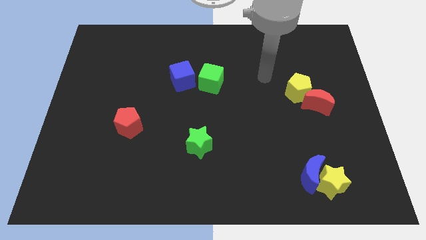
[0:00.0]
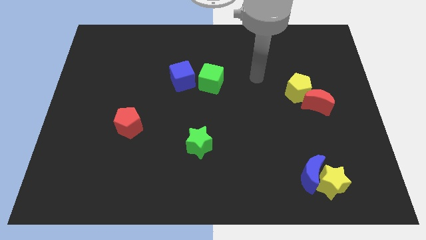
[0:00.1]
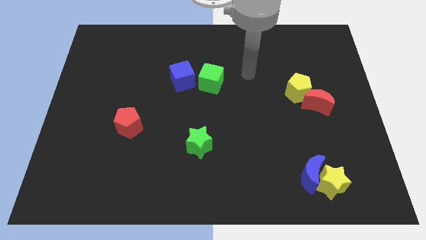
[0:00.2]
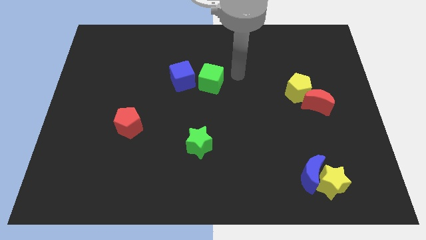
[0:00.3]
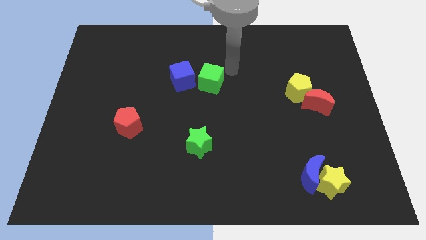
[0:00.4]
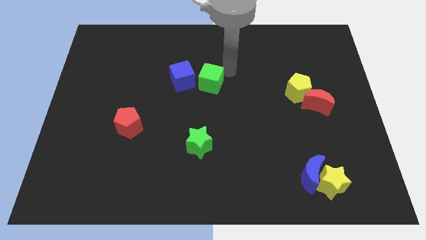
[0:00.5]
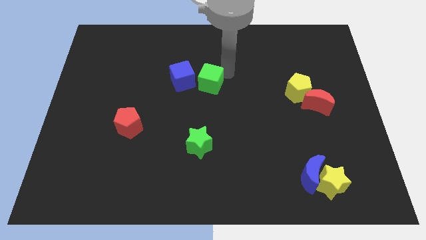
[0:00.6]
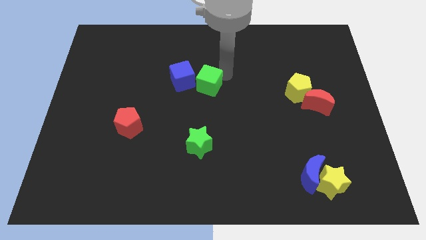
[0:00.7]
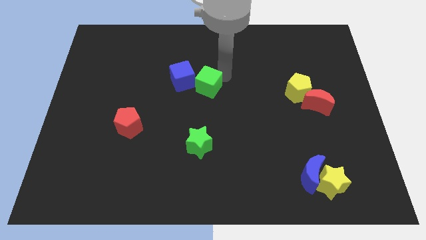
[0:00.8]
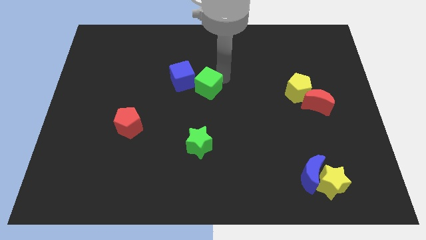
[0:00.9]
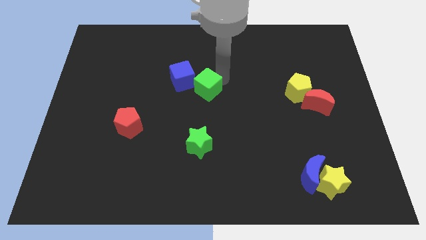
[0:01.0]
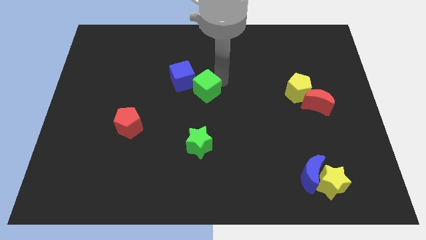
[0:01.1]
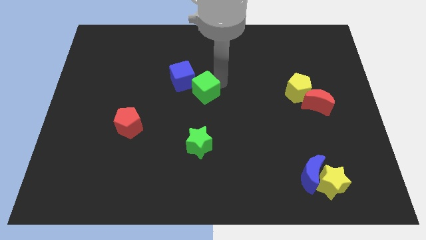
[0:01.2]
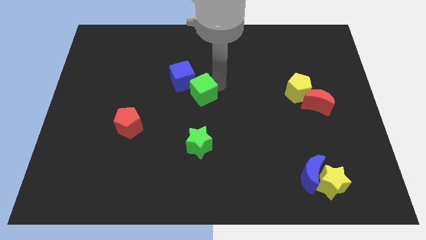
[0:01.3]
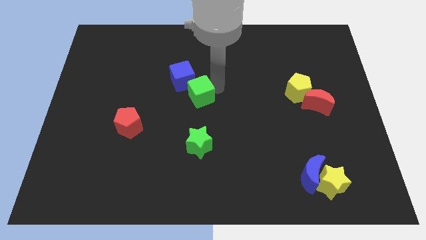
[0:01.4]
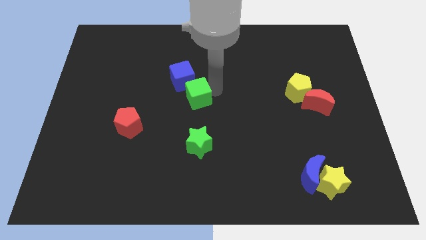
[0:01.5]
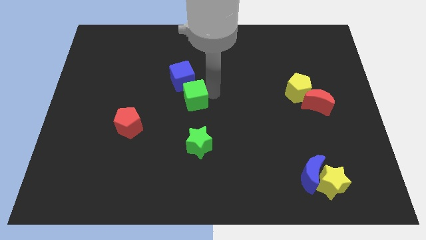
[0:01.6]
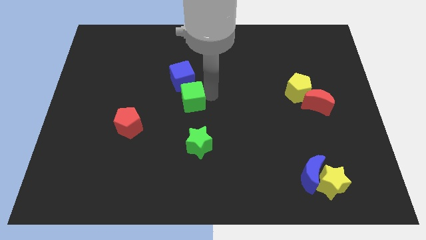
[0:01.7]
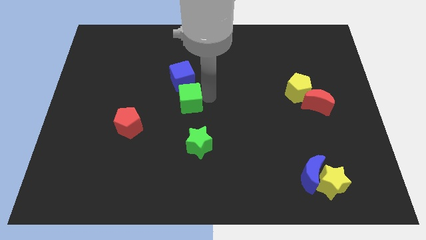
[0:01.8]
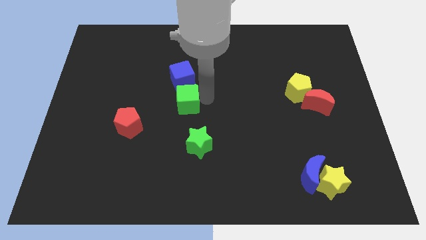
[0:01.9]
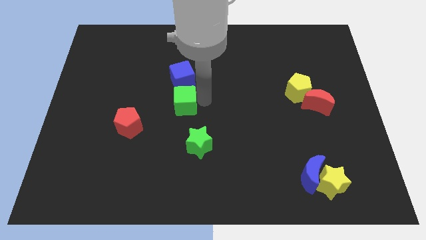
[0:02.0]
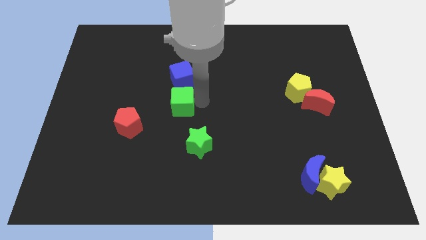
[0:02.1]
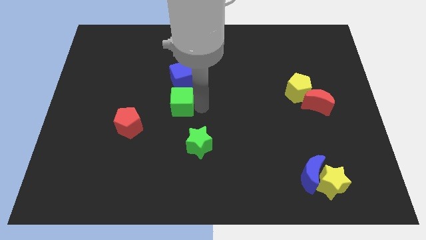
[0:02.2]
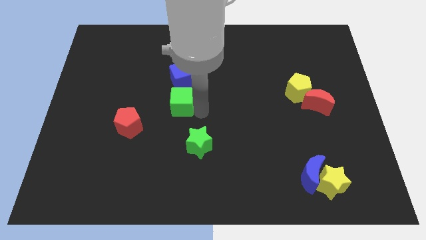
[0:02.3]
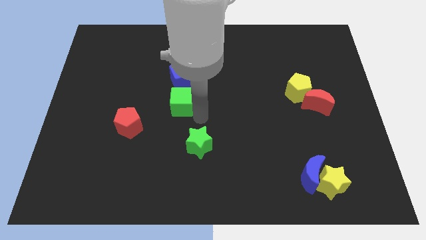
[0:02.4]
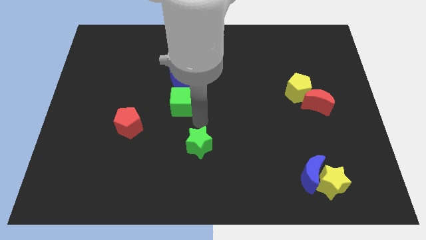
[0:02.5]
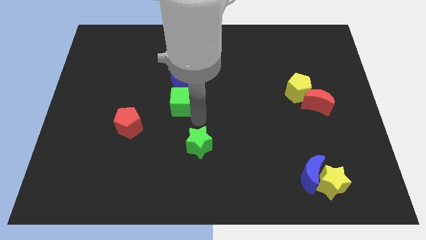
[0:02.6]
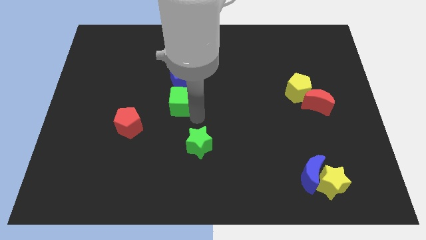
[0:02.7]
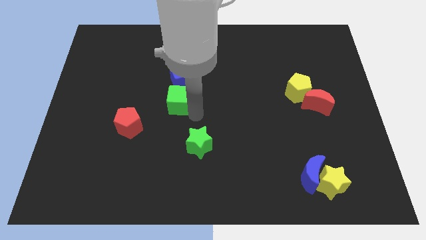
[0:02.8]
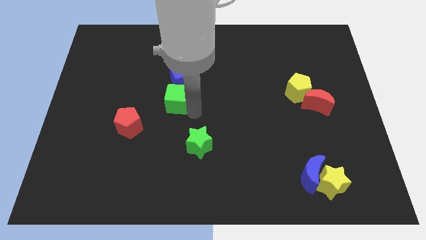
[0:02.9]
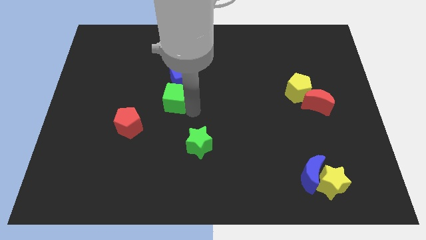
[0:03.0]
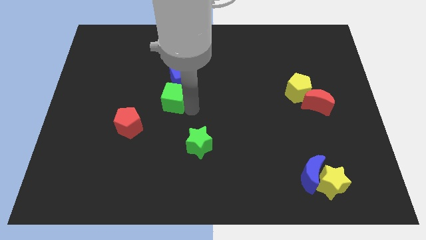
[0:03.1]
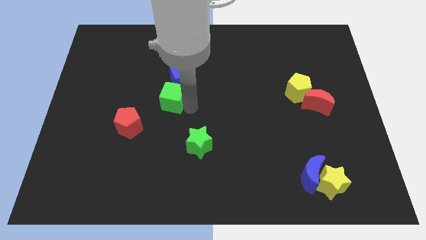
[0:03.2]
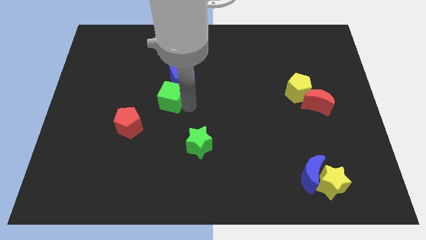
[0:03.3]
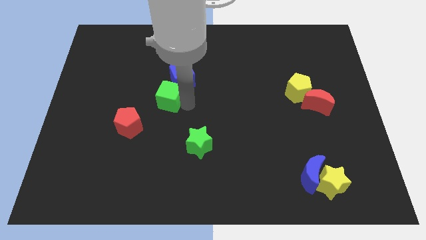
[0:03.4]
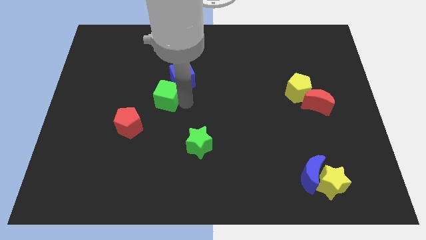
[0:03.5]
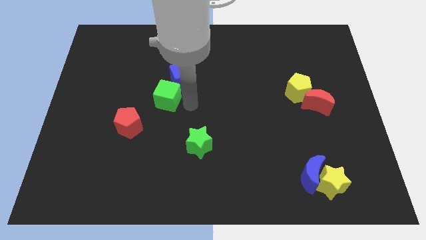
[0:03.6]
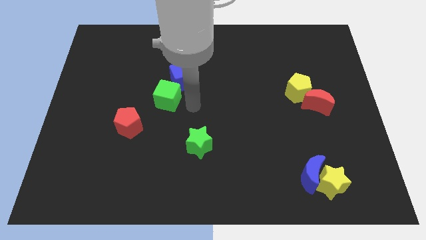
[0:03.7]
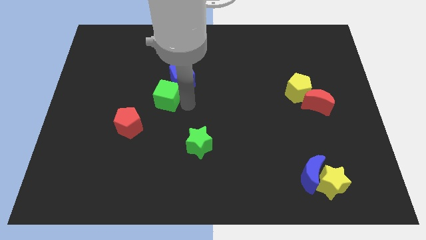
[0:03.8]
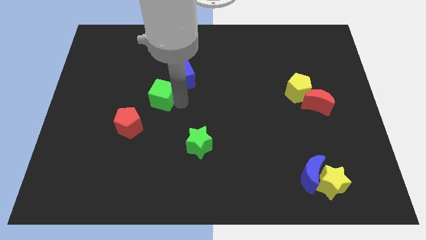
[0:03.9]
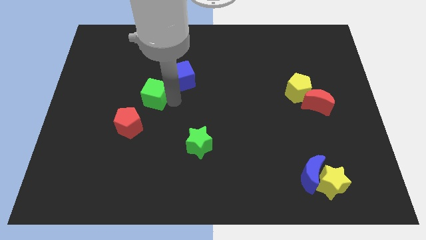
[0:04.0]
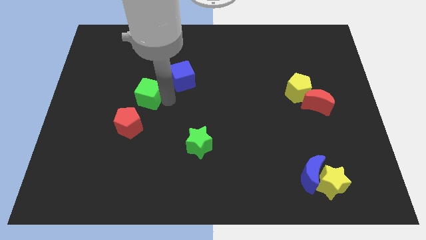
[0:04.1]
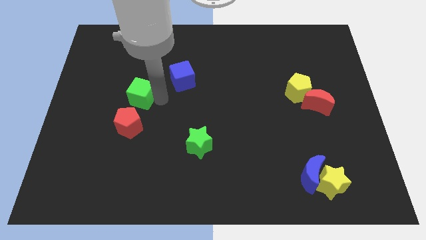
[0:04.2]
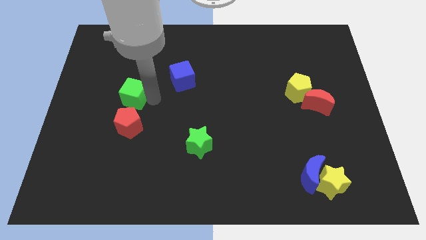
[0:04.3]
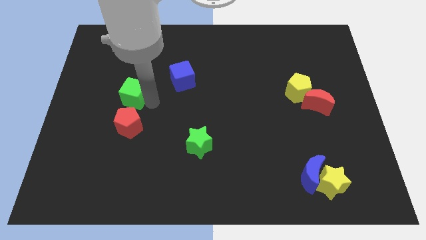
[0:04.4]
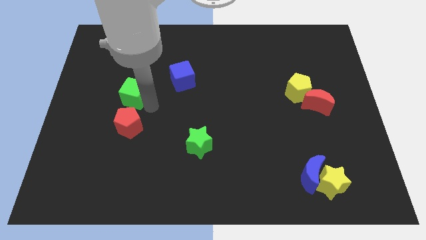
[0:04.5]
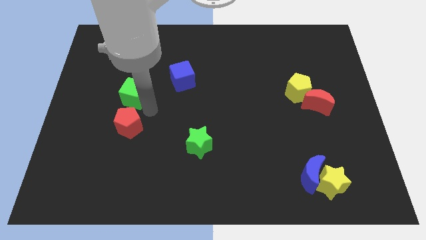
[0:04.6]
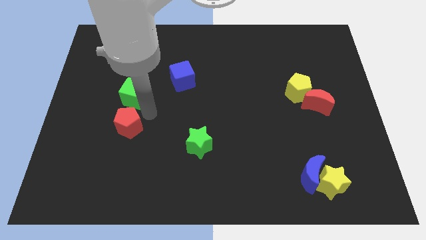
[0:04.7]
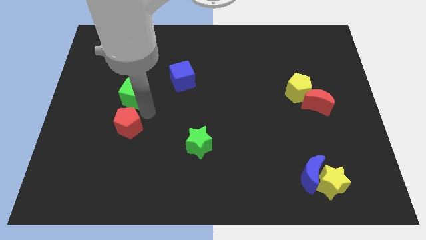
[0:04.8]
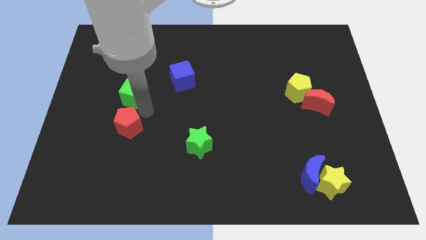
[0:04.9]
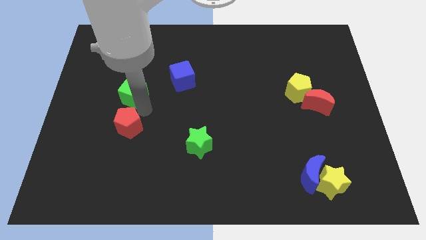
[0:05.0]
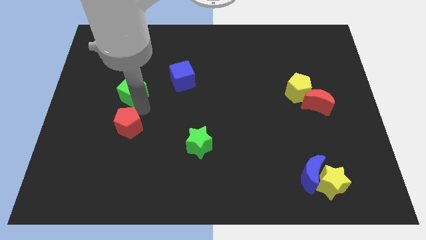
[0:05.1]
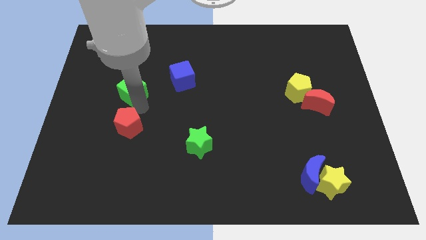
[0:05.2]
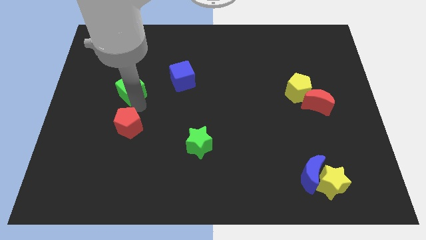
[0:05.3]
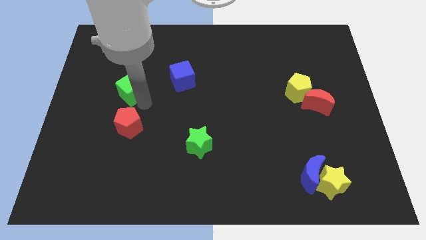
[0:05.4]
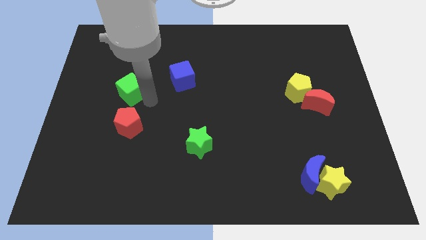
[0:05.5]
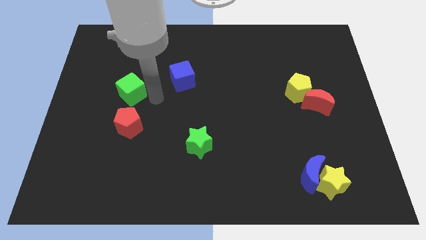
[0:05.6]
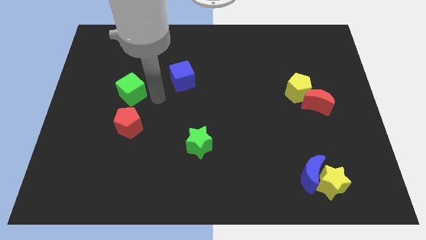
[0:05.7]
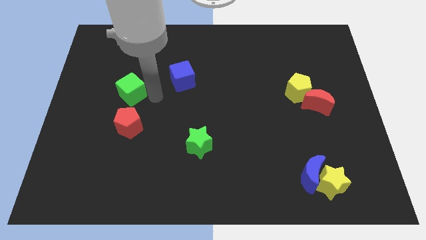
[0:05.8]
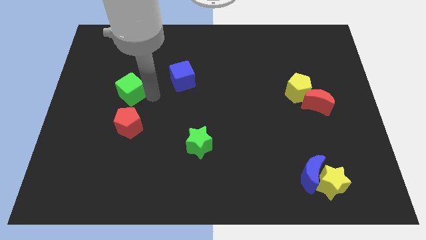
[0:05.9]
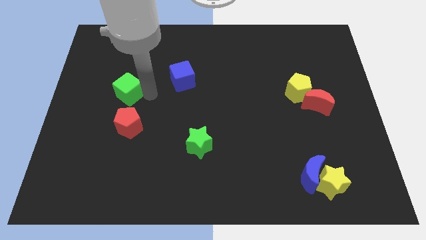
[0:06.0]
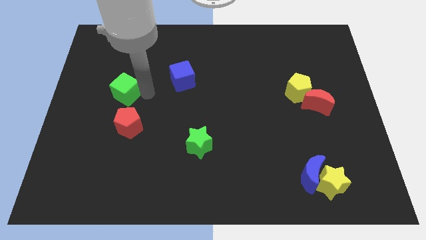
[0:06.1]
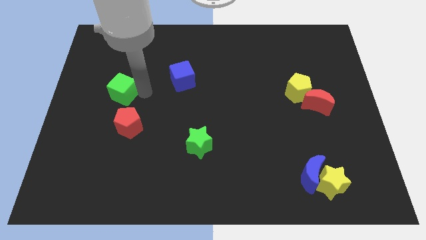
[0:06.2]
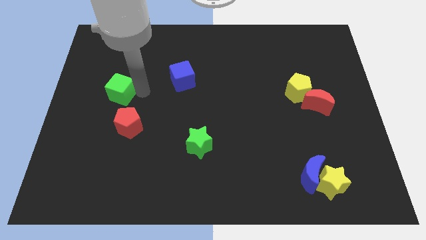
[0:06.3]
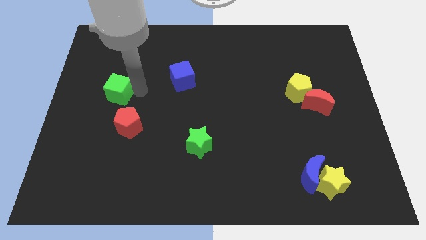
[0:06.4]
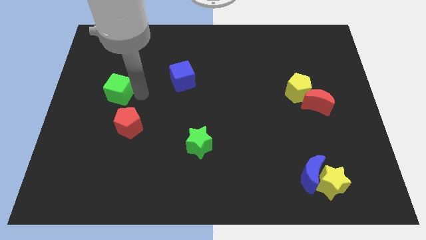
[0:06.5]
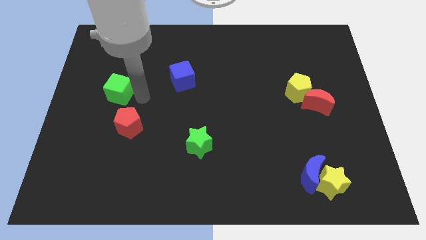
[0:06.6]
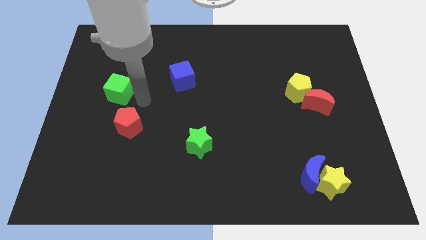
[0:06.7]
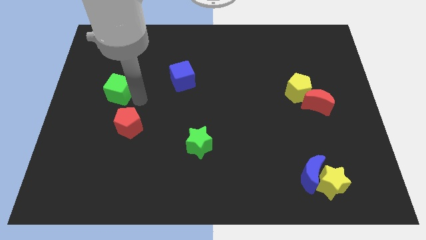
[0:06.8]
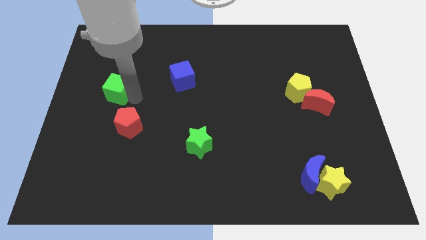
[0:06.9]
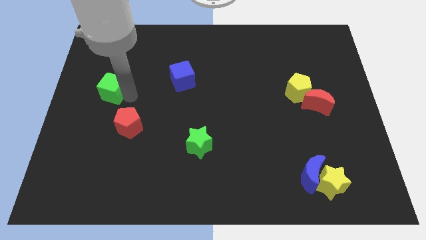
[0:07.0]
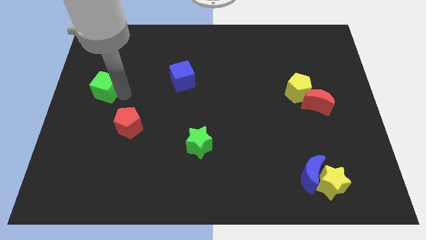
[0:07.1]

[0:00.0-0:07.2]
slide the green cube to the left side of the board
